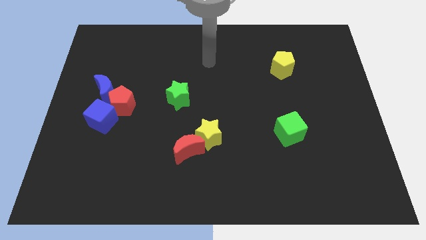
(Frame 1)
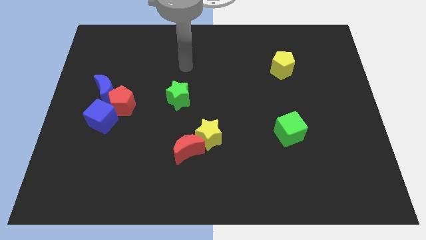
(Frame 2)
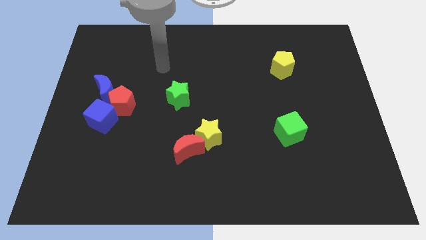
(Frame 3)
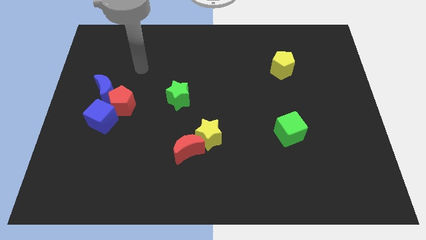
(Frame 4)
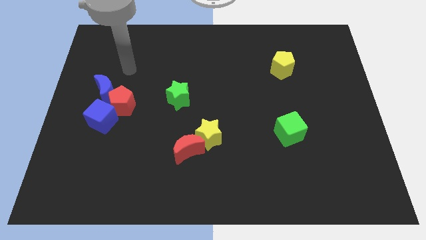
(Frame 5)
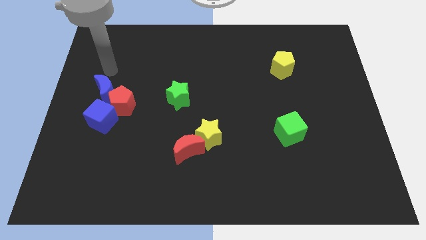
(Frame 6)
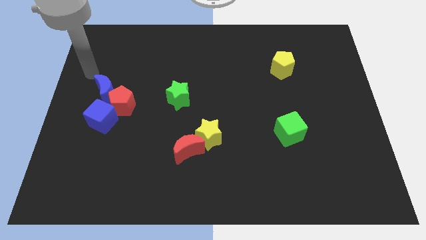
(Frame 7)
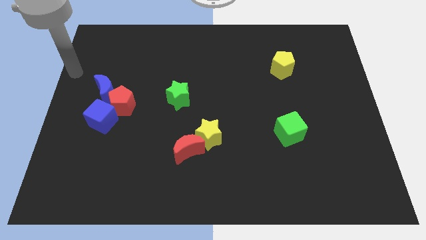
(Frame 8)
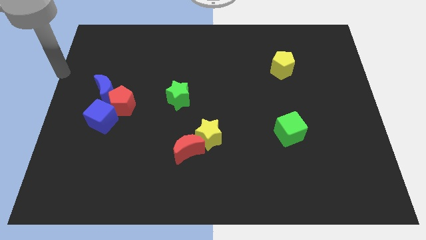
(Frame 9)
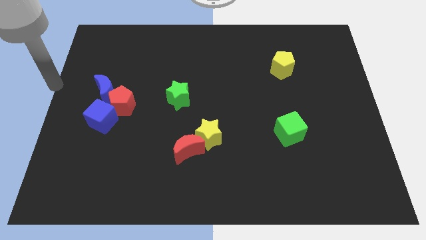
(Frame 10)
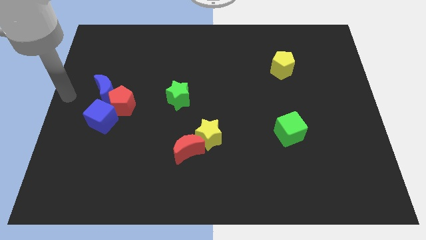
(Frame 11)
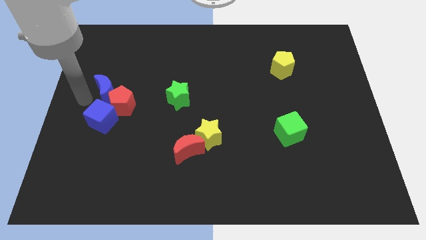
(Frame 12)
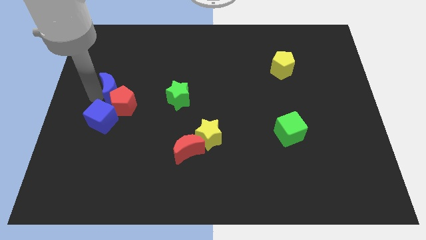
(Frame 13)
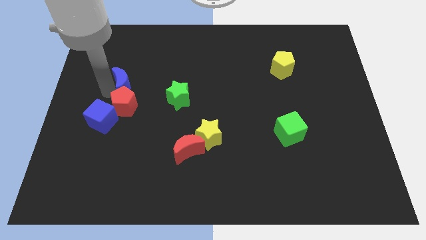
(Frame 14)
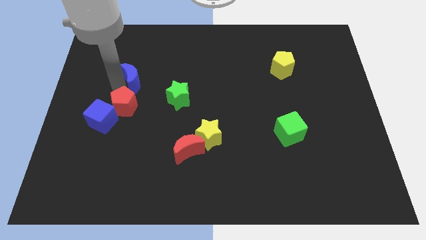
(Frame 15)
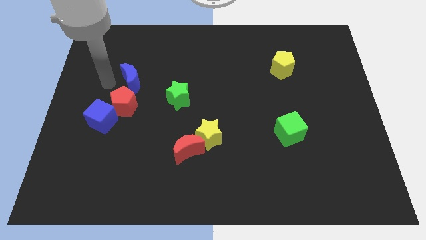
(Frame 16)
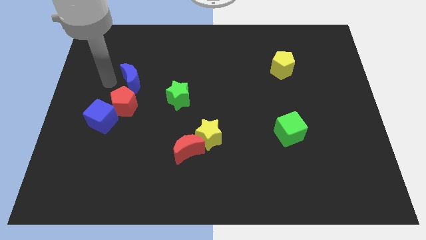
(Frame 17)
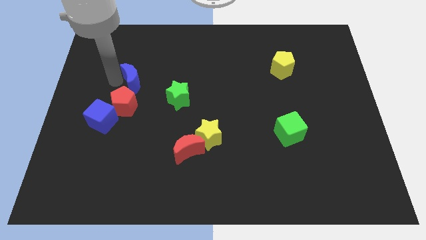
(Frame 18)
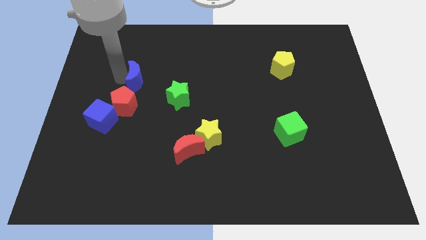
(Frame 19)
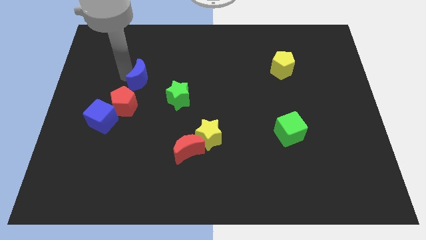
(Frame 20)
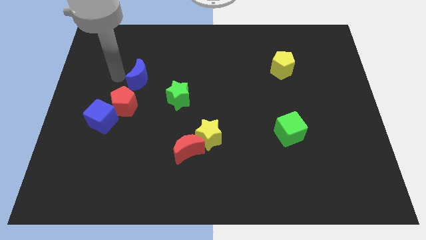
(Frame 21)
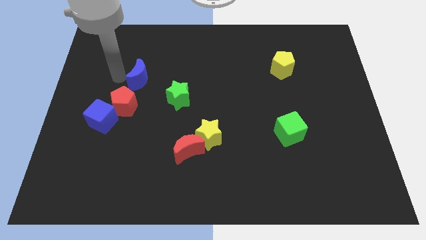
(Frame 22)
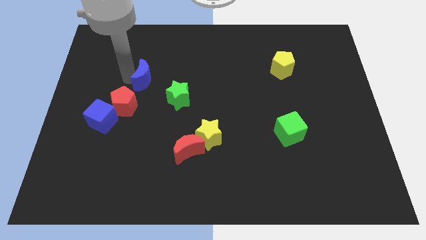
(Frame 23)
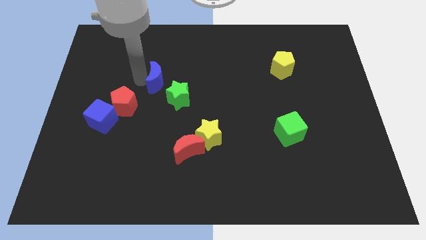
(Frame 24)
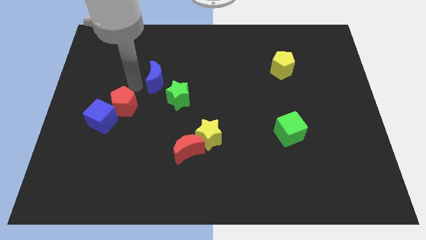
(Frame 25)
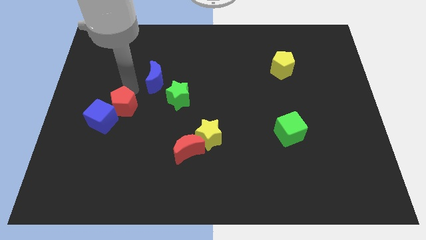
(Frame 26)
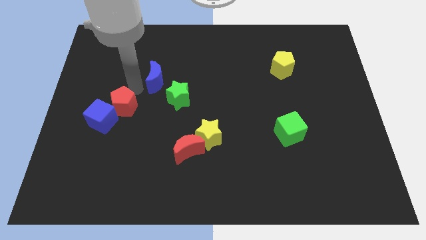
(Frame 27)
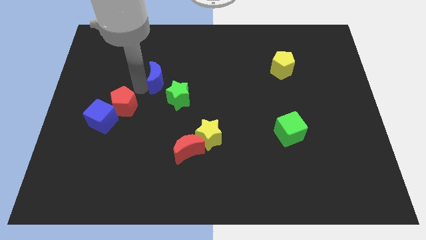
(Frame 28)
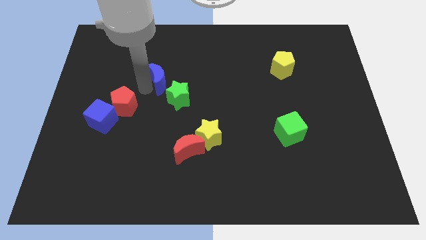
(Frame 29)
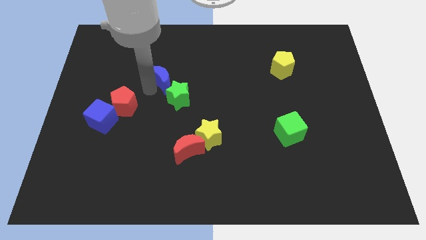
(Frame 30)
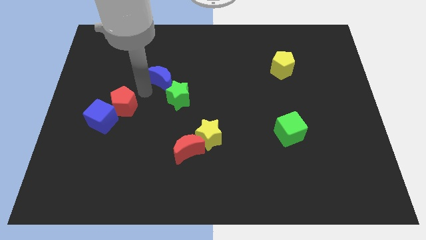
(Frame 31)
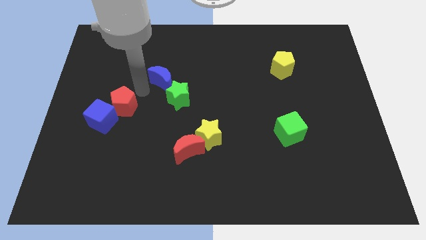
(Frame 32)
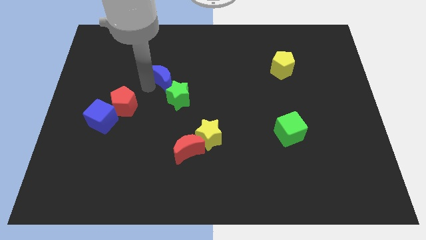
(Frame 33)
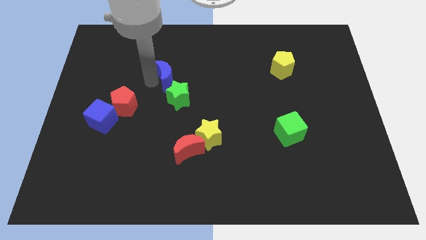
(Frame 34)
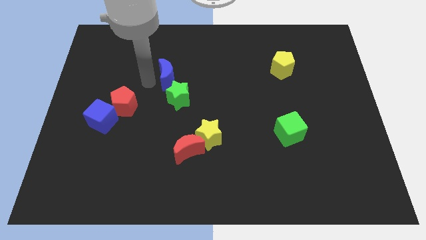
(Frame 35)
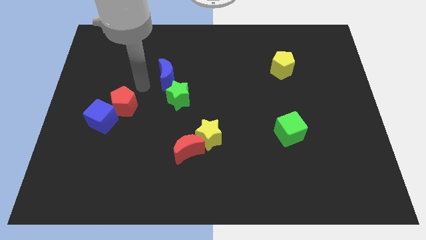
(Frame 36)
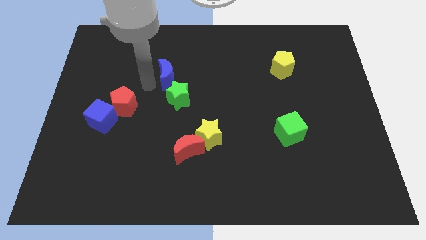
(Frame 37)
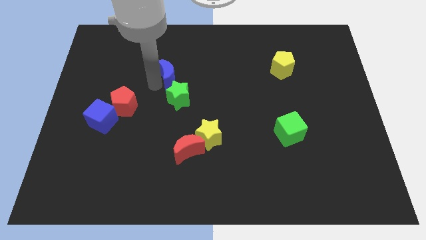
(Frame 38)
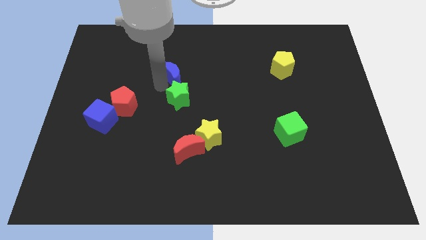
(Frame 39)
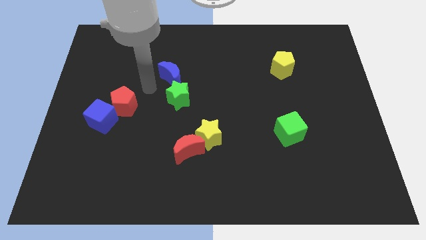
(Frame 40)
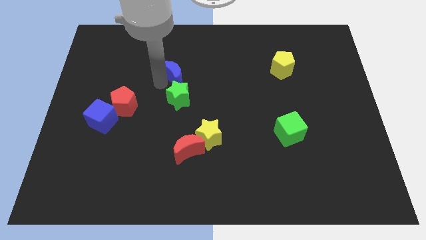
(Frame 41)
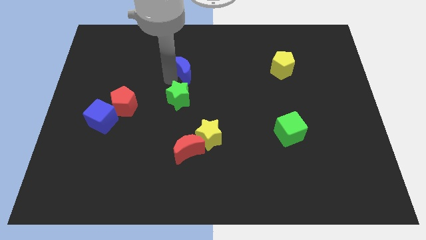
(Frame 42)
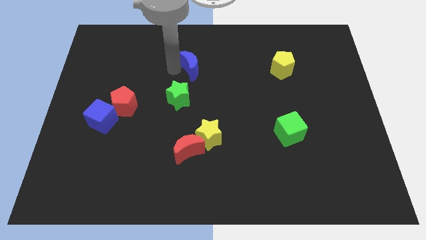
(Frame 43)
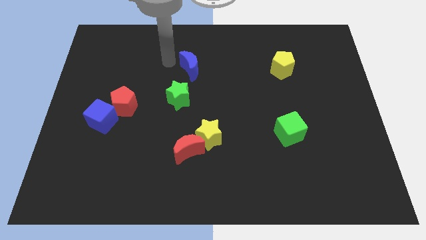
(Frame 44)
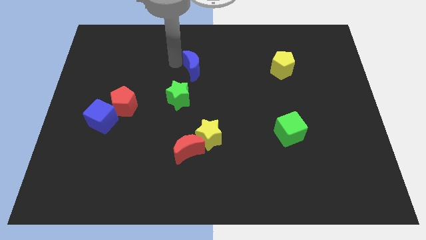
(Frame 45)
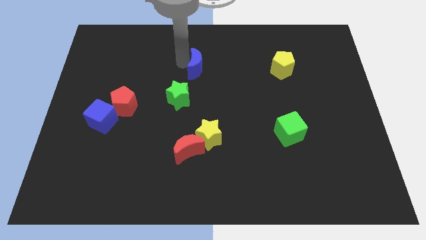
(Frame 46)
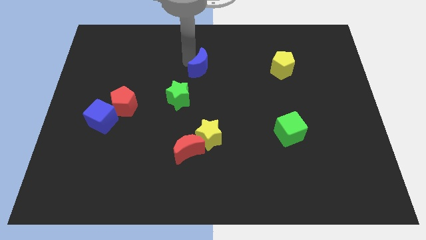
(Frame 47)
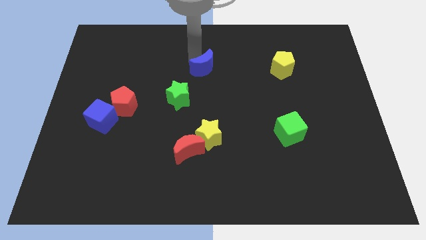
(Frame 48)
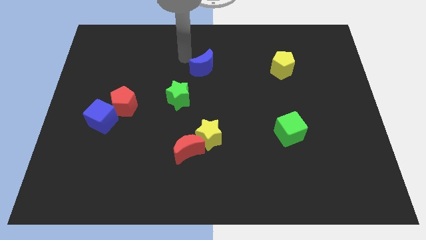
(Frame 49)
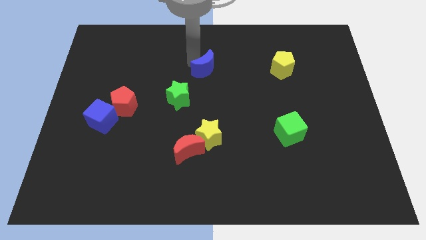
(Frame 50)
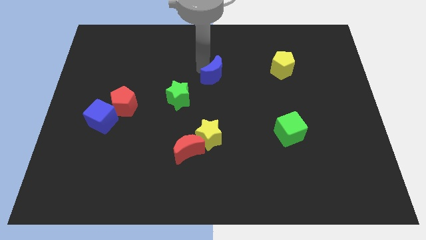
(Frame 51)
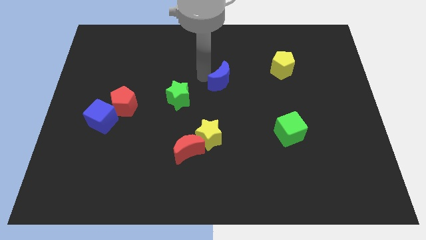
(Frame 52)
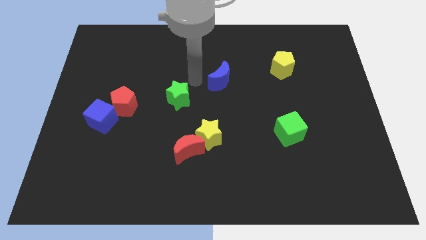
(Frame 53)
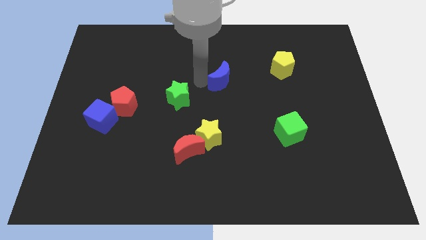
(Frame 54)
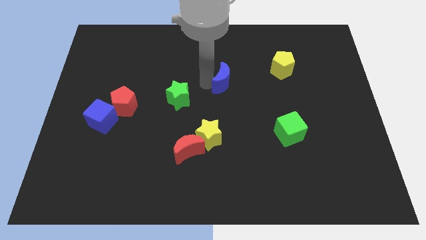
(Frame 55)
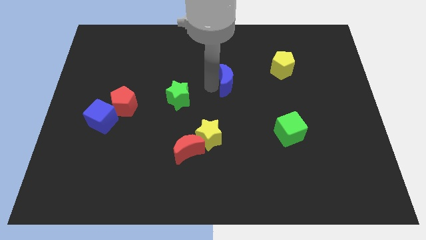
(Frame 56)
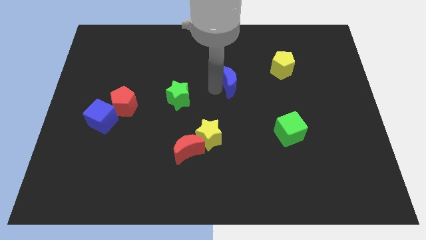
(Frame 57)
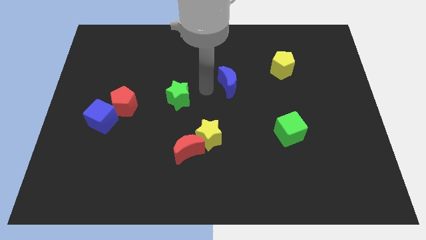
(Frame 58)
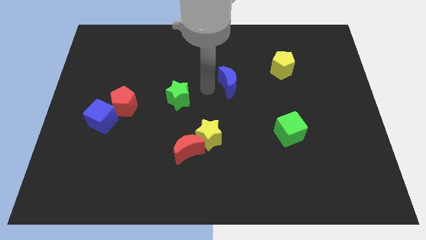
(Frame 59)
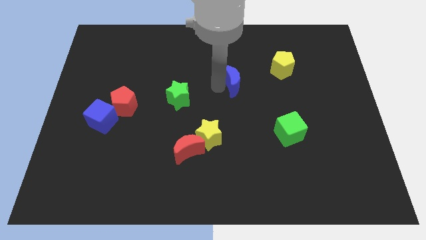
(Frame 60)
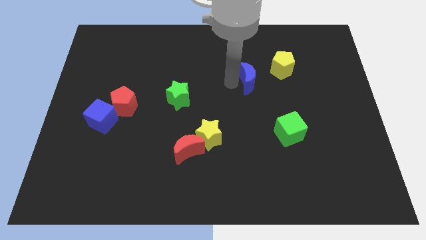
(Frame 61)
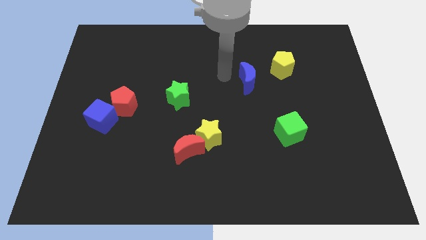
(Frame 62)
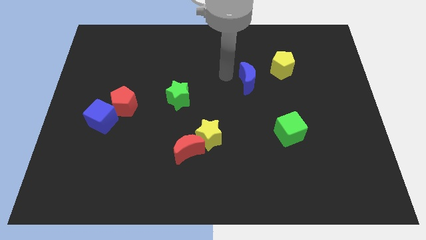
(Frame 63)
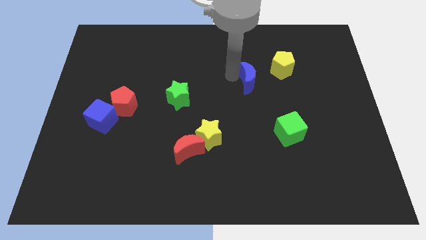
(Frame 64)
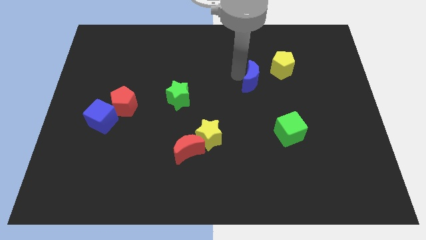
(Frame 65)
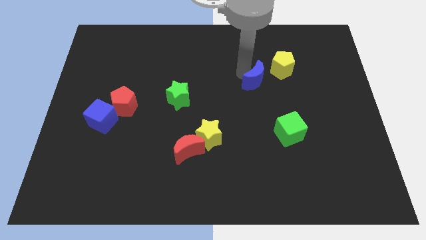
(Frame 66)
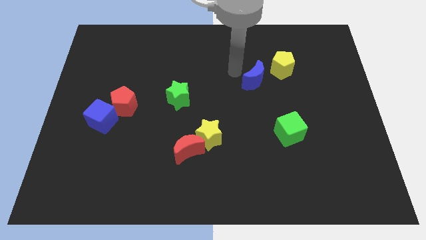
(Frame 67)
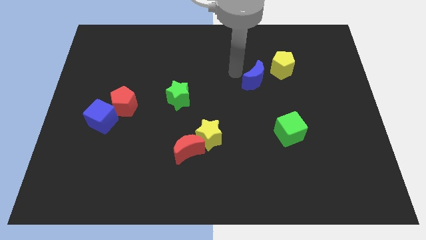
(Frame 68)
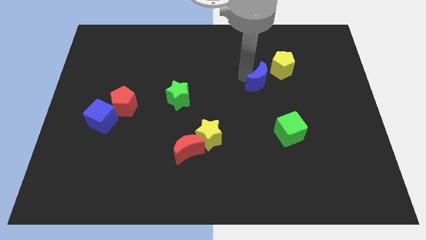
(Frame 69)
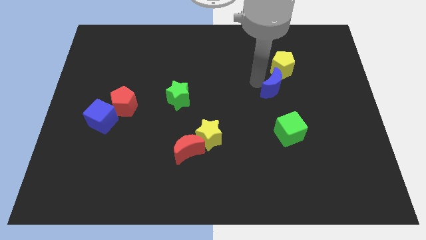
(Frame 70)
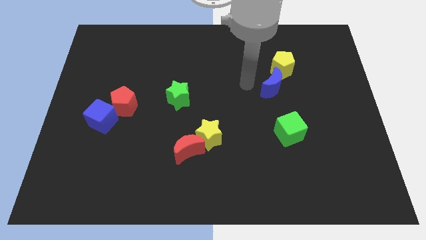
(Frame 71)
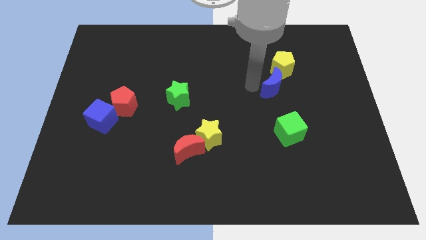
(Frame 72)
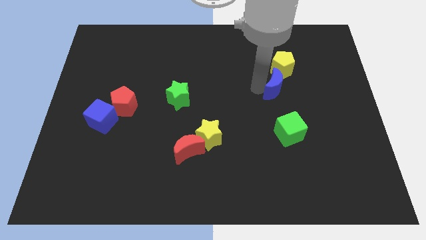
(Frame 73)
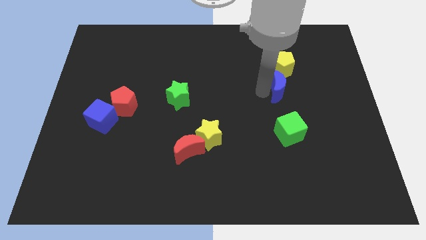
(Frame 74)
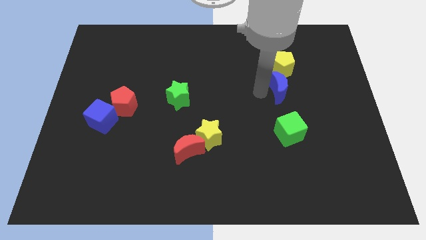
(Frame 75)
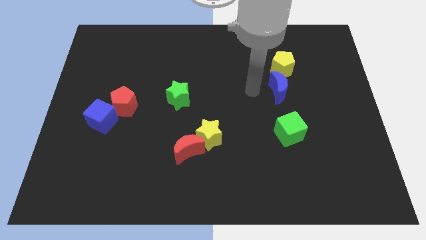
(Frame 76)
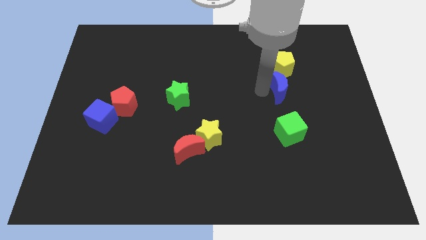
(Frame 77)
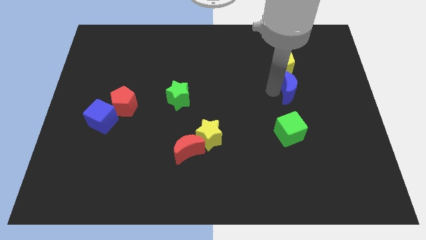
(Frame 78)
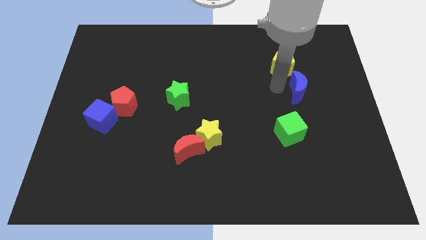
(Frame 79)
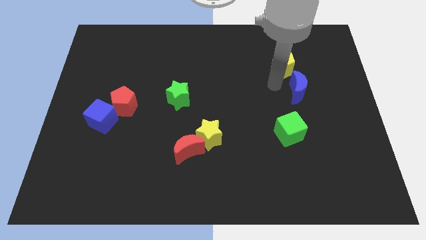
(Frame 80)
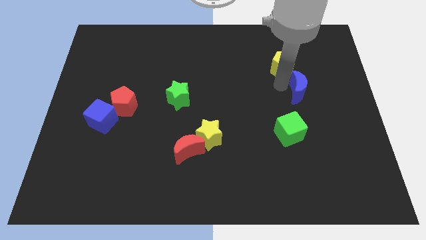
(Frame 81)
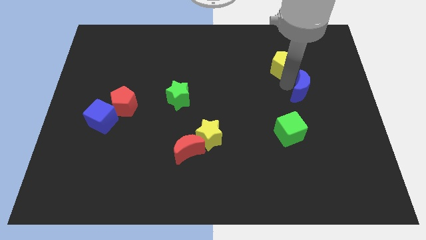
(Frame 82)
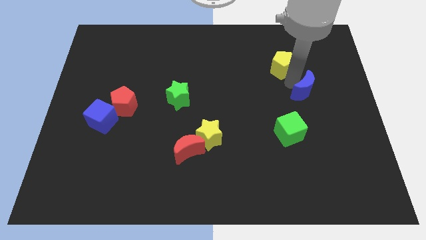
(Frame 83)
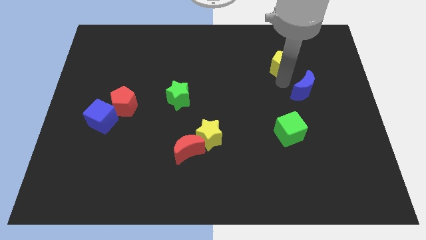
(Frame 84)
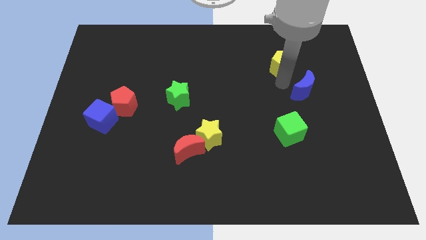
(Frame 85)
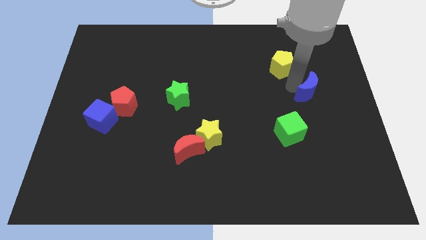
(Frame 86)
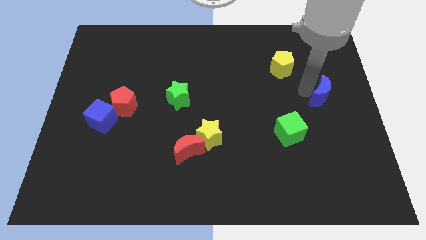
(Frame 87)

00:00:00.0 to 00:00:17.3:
push the blue moon to the right side
